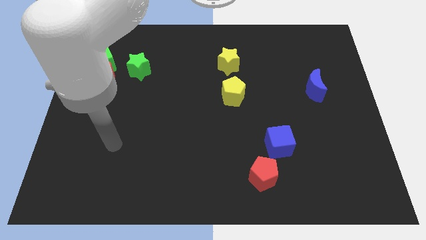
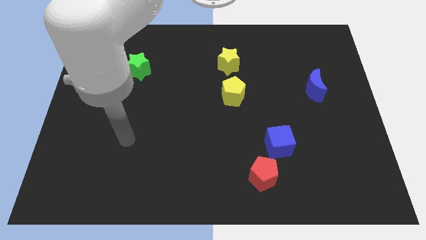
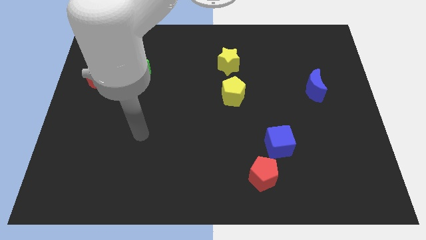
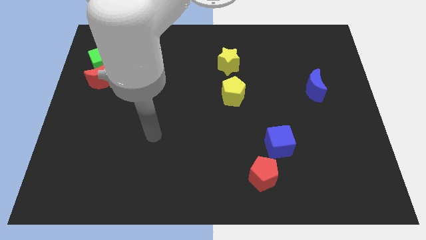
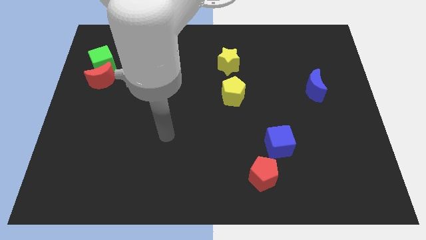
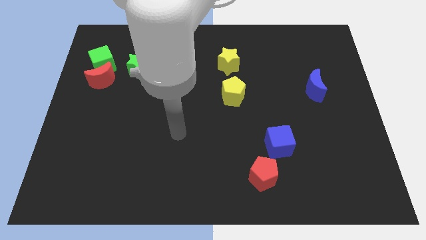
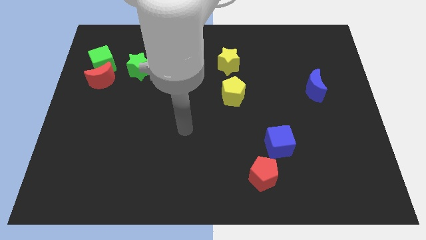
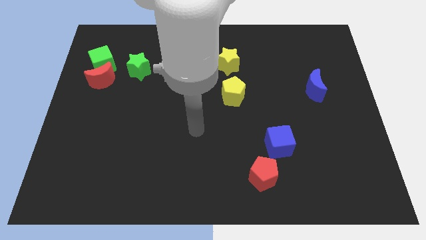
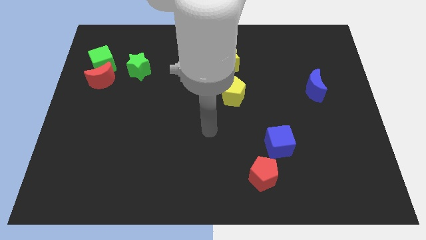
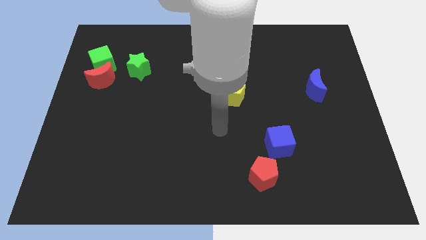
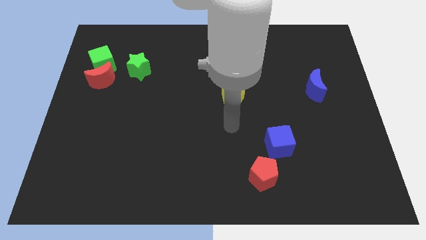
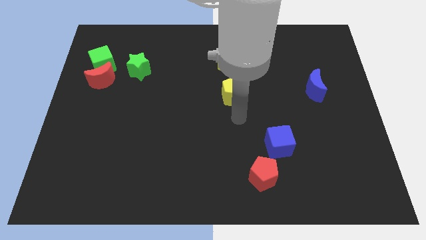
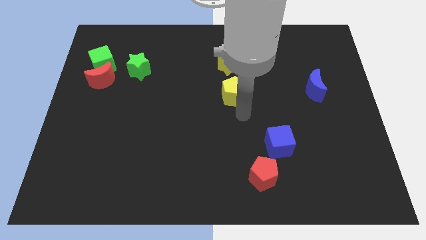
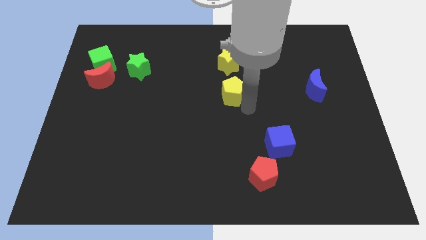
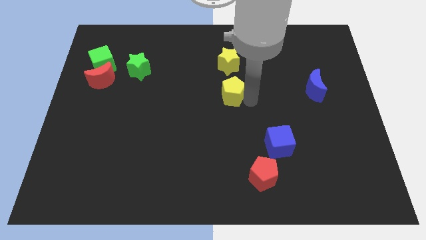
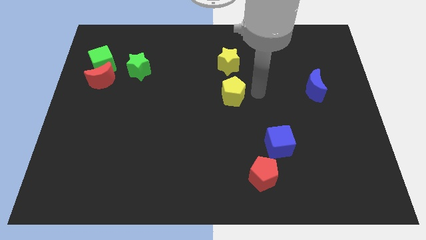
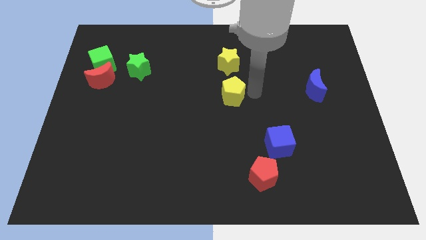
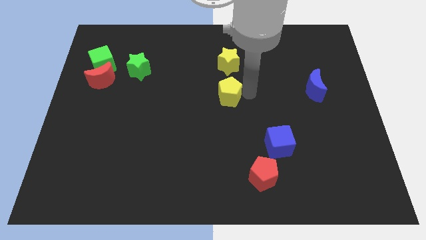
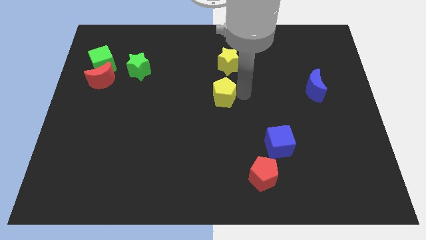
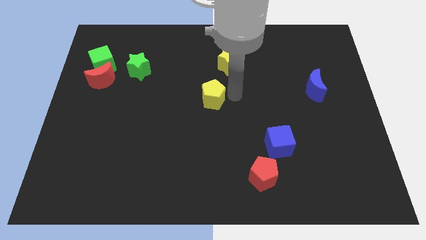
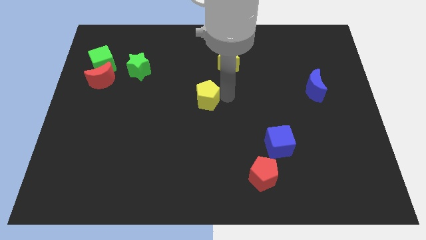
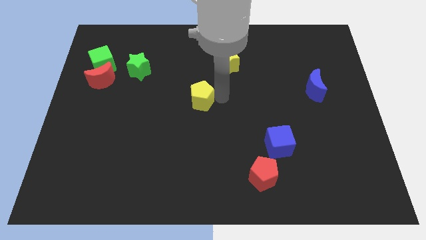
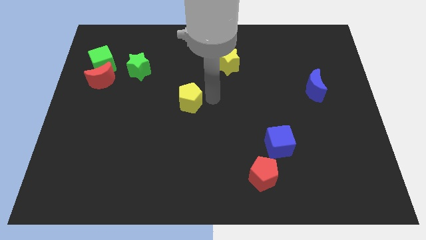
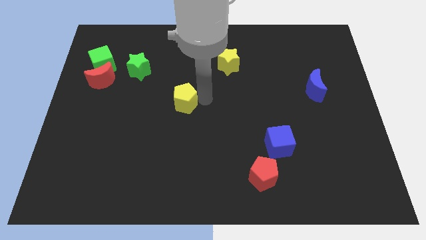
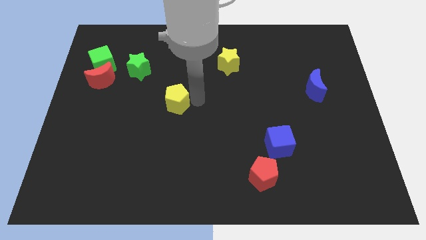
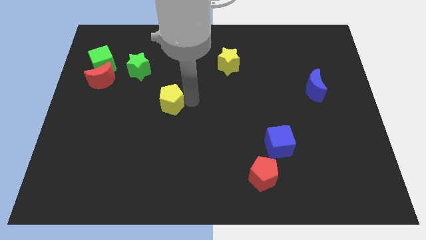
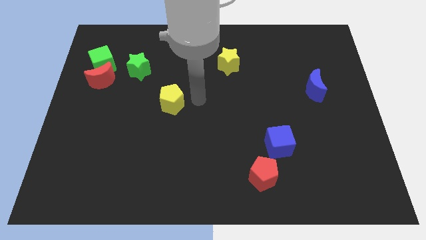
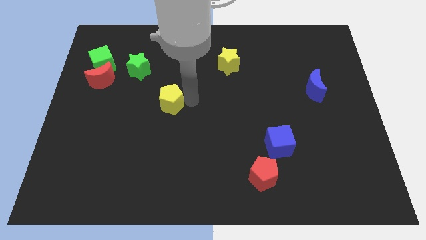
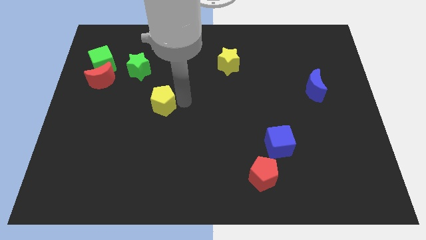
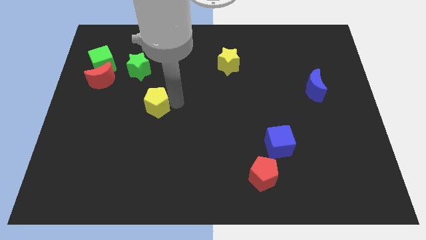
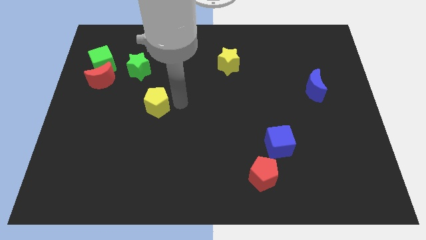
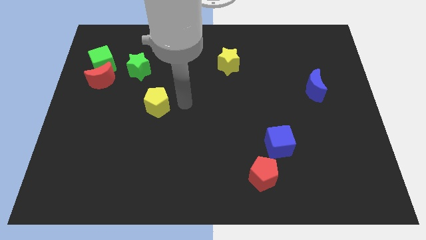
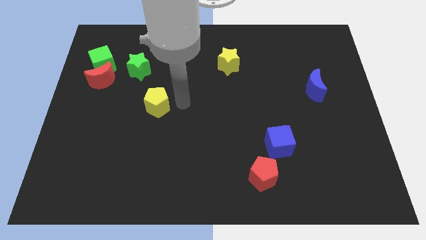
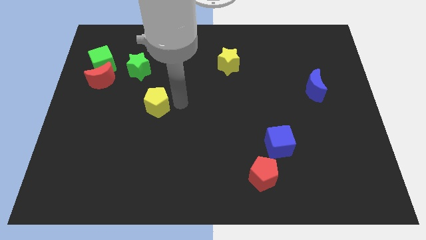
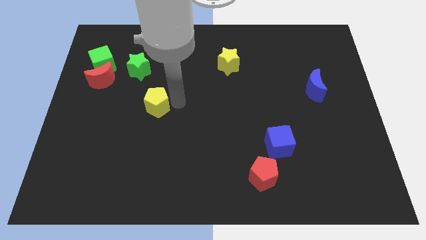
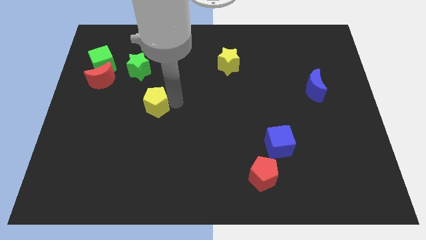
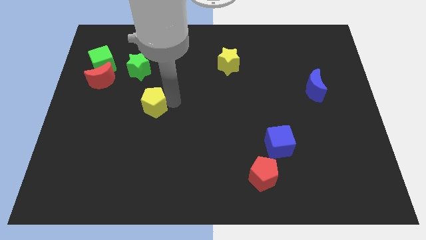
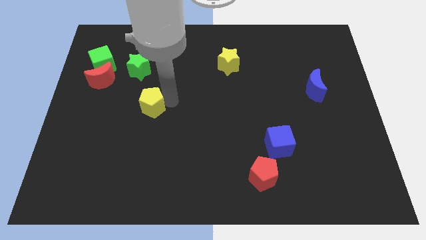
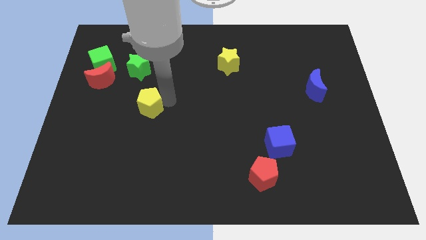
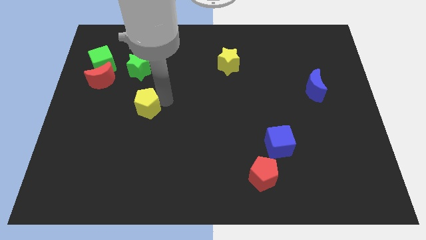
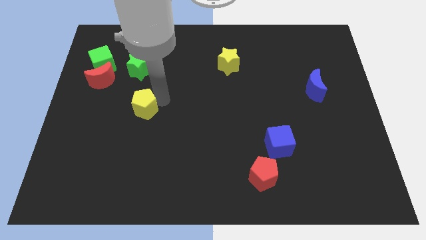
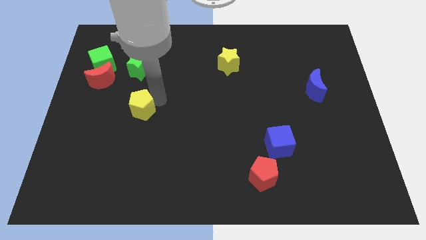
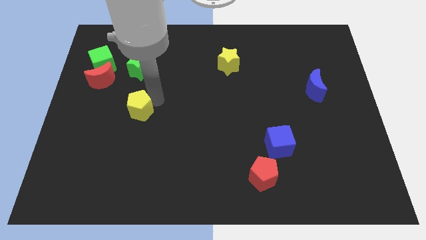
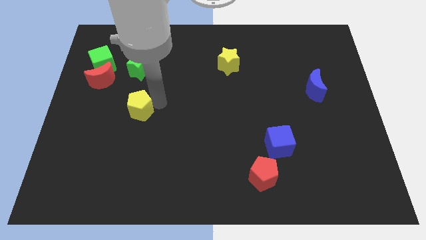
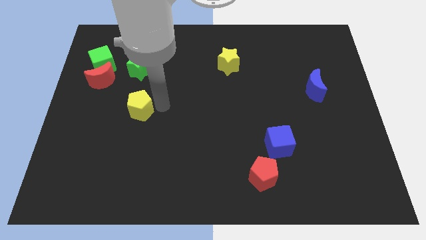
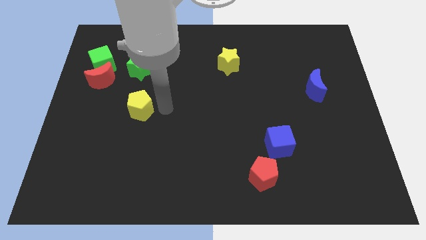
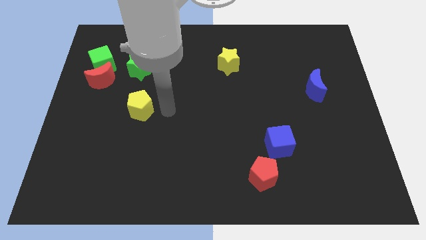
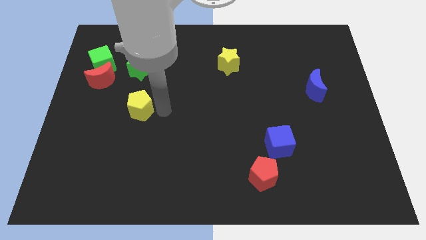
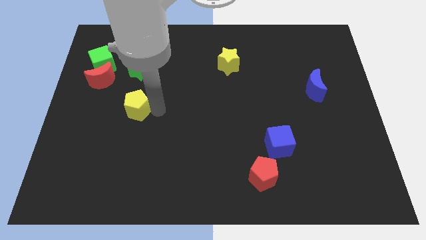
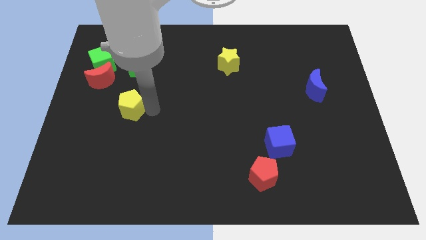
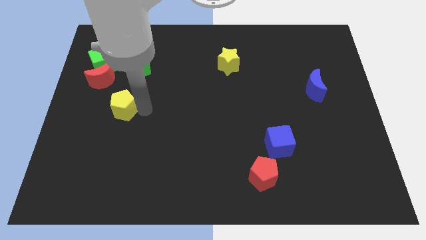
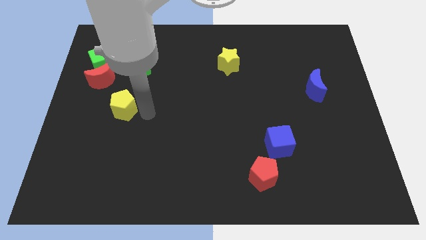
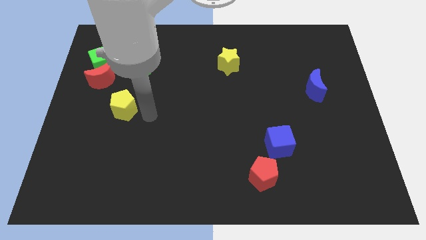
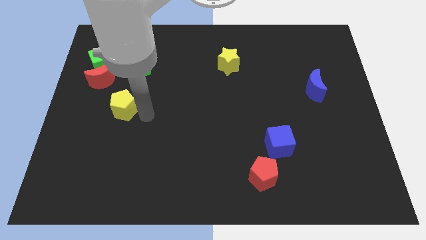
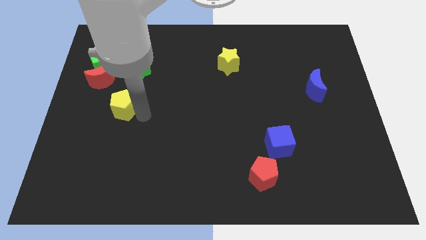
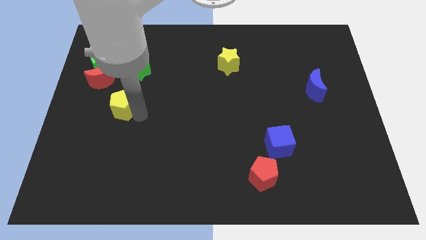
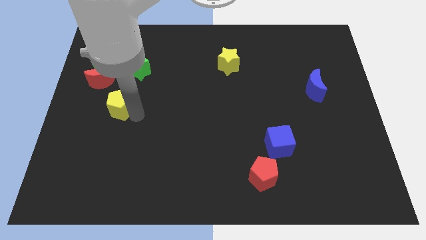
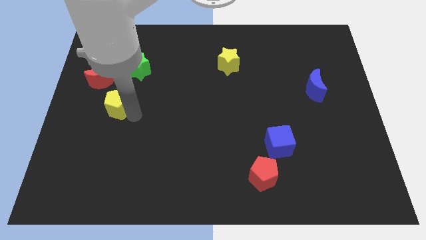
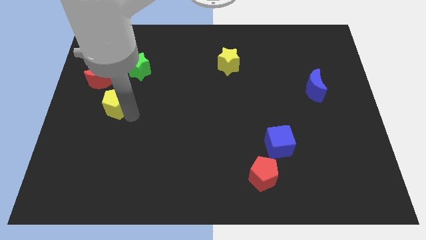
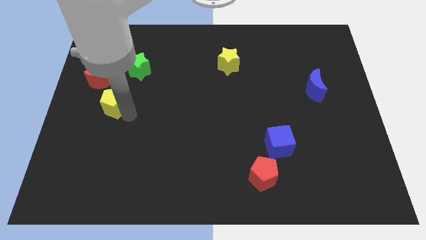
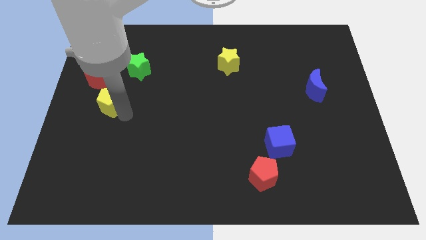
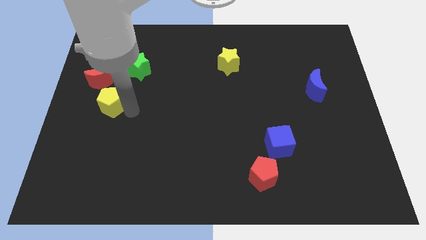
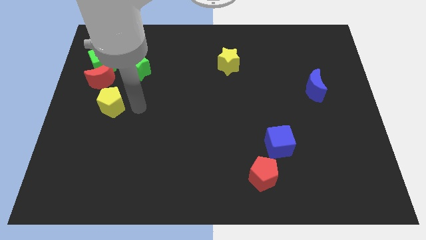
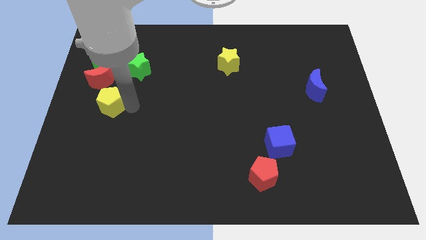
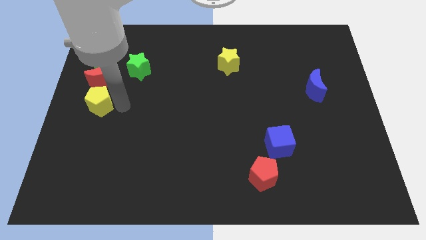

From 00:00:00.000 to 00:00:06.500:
put the yellow pentagon to the left side
